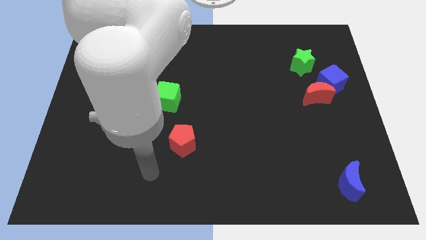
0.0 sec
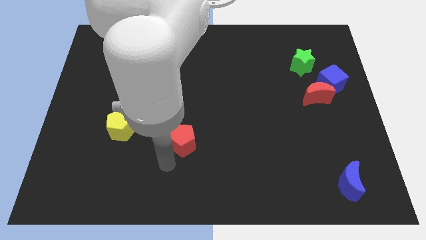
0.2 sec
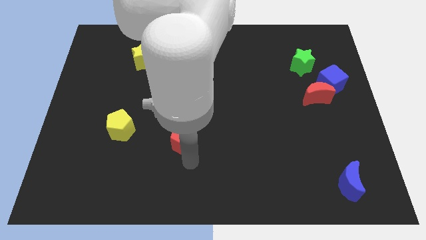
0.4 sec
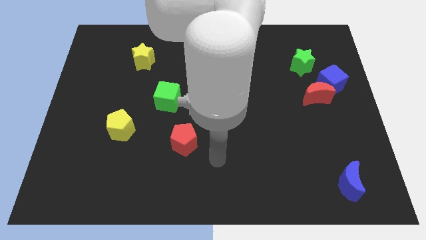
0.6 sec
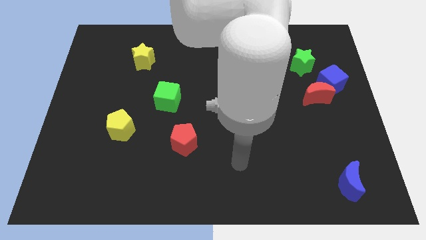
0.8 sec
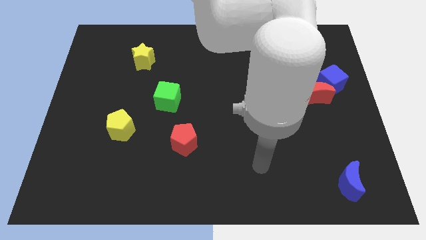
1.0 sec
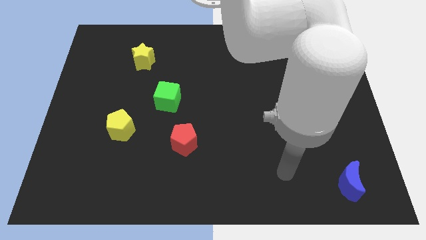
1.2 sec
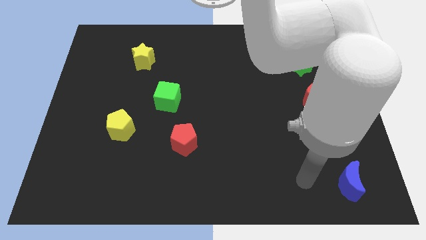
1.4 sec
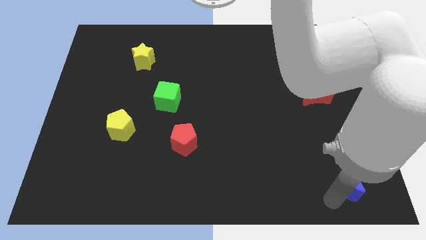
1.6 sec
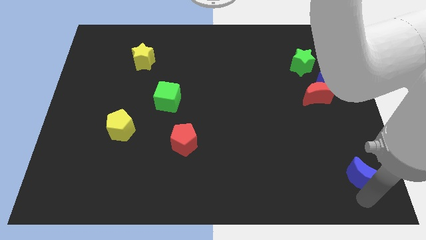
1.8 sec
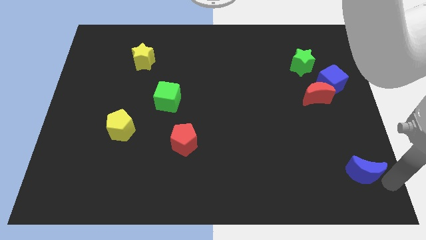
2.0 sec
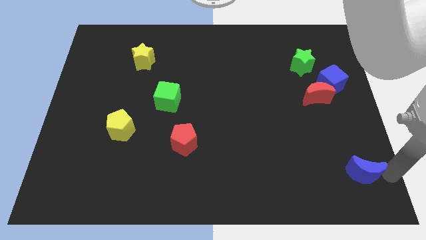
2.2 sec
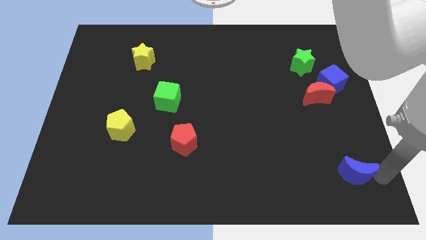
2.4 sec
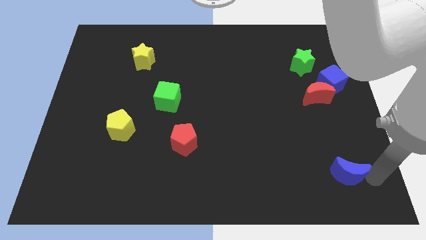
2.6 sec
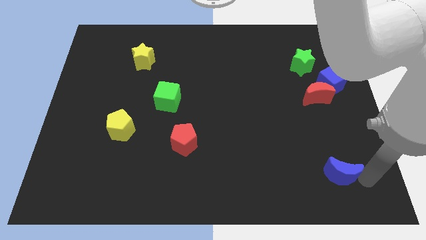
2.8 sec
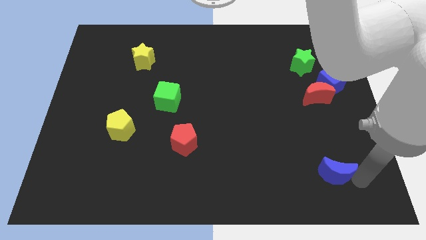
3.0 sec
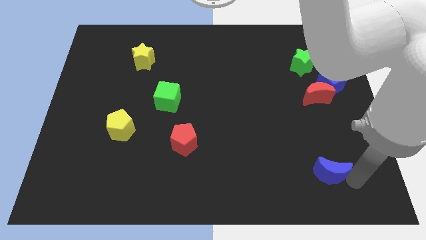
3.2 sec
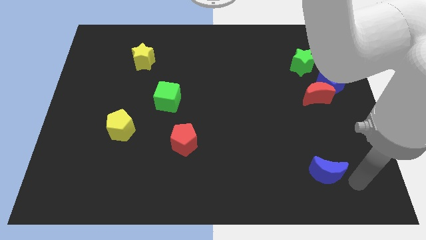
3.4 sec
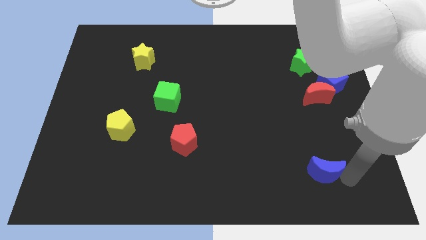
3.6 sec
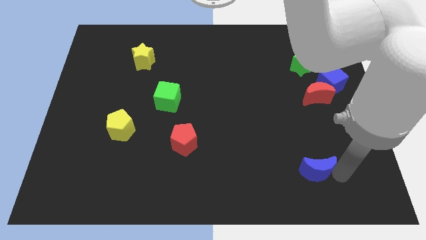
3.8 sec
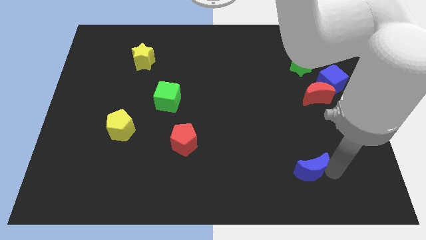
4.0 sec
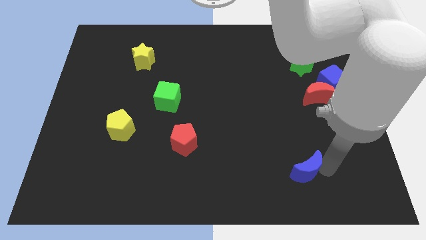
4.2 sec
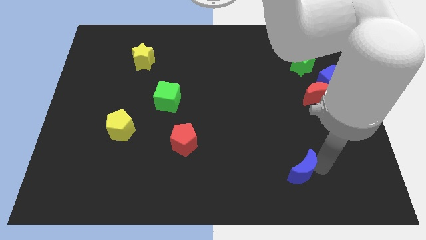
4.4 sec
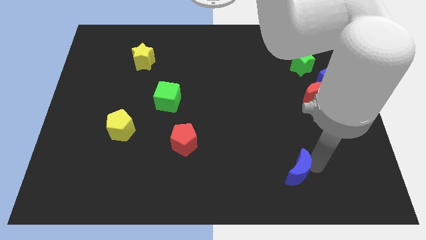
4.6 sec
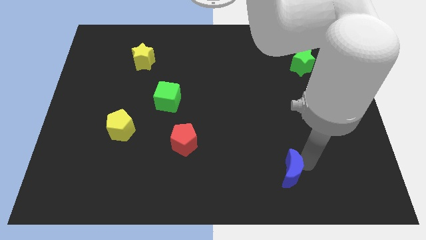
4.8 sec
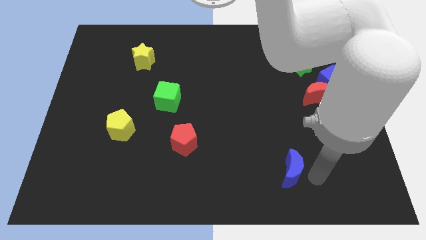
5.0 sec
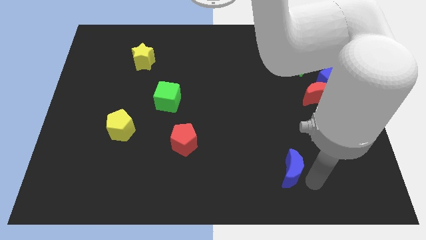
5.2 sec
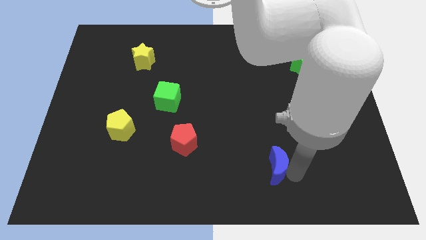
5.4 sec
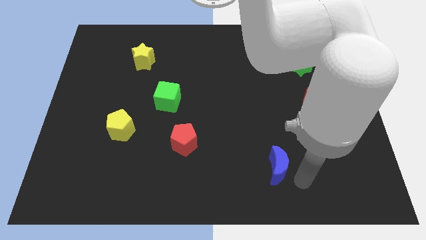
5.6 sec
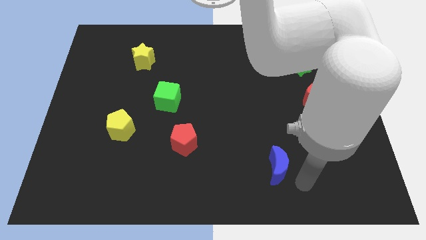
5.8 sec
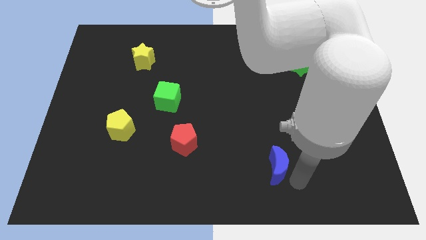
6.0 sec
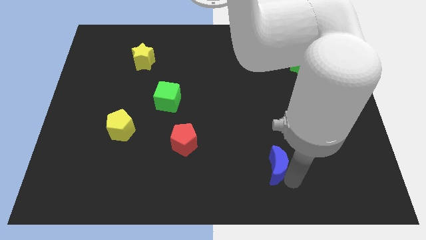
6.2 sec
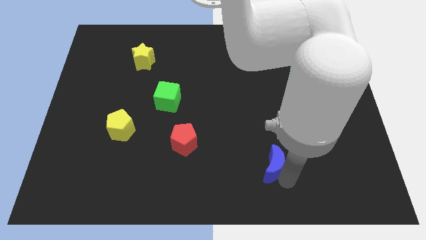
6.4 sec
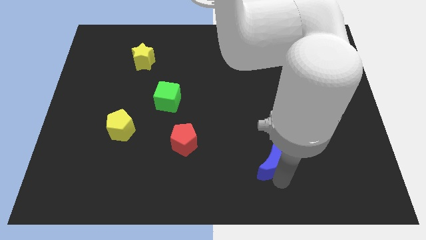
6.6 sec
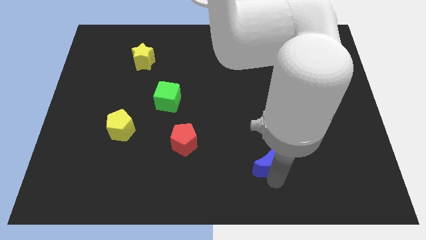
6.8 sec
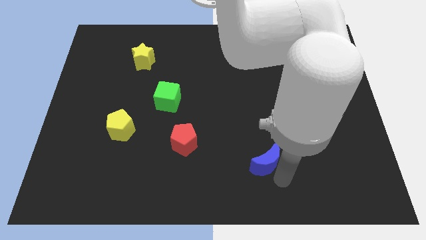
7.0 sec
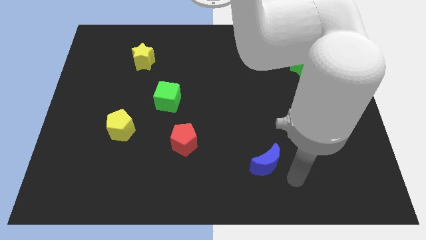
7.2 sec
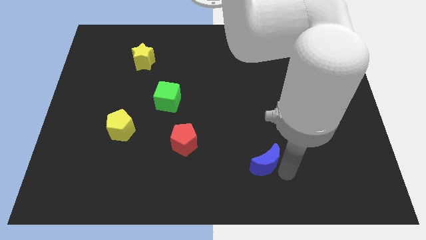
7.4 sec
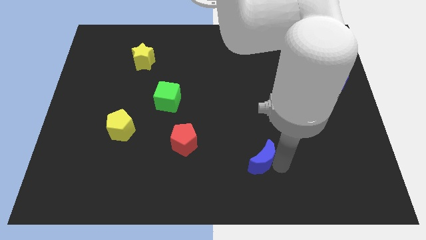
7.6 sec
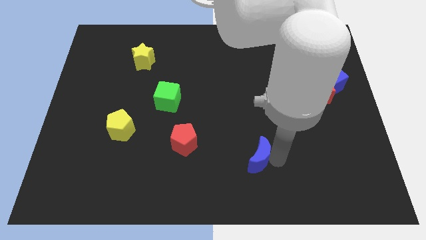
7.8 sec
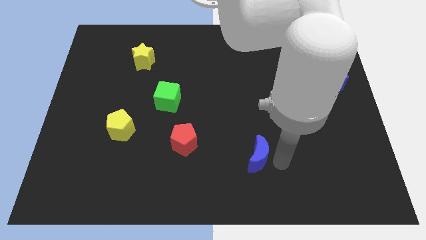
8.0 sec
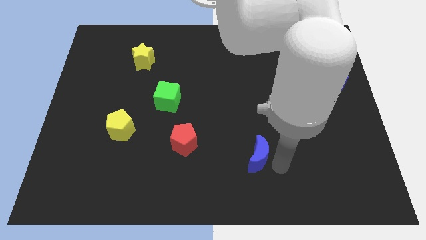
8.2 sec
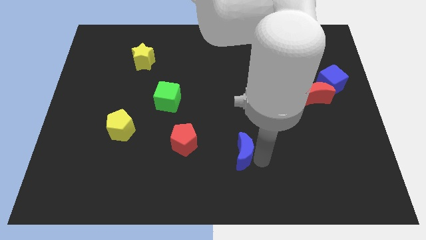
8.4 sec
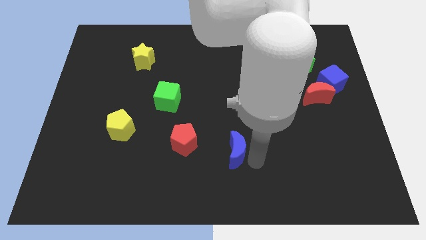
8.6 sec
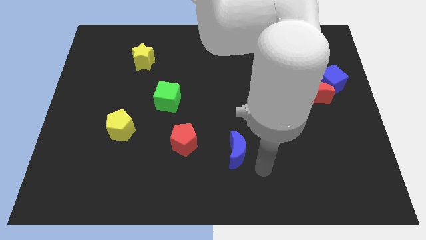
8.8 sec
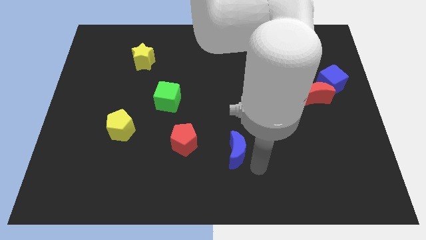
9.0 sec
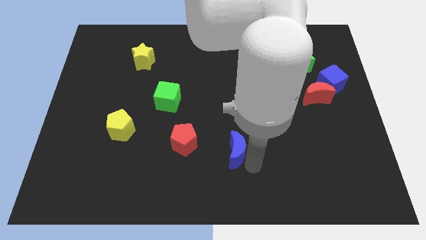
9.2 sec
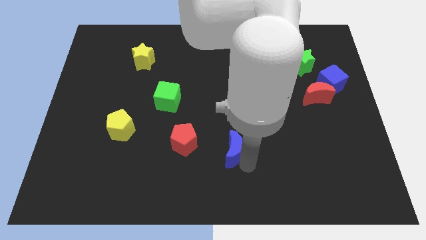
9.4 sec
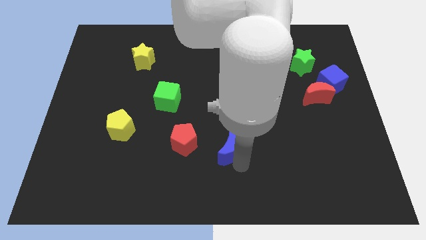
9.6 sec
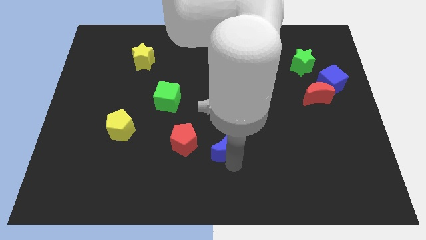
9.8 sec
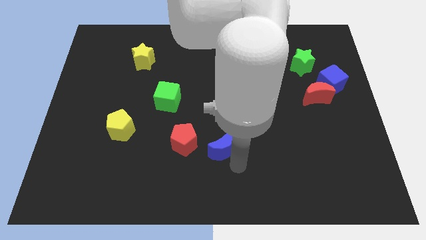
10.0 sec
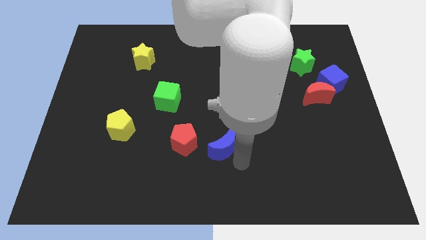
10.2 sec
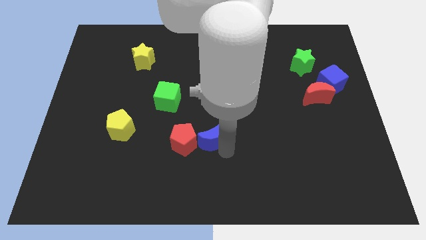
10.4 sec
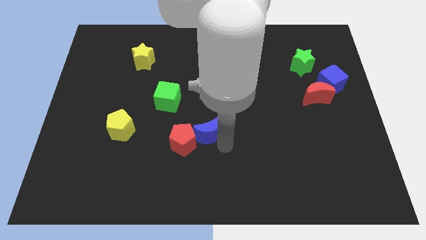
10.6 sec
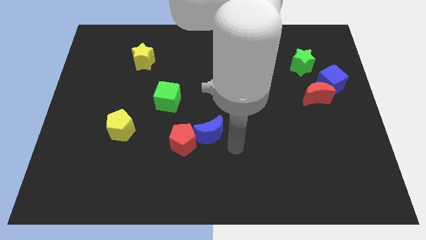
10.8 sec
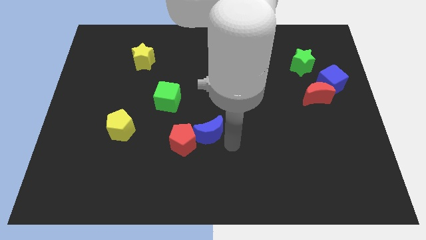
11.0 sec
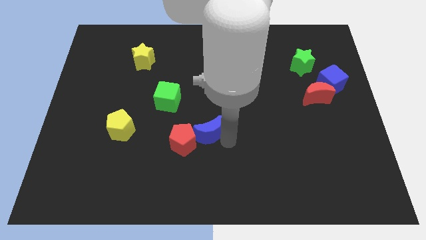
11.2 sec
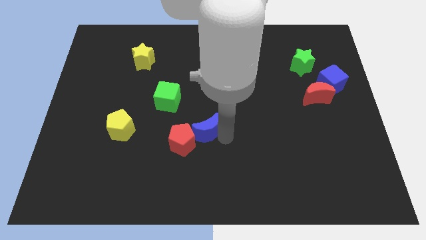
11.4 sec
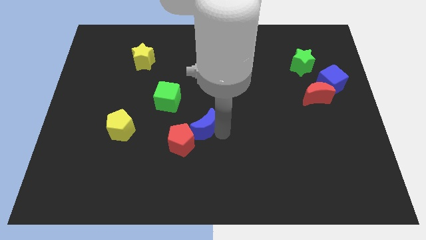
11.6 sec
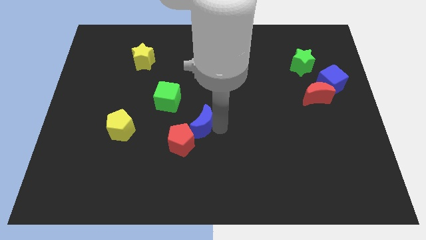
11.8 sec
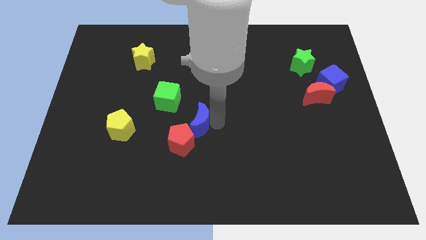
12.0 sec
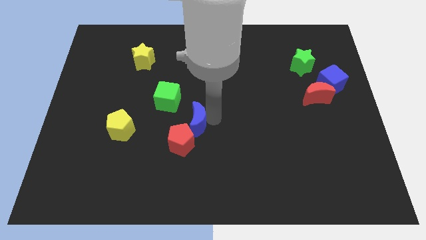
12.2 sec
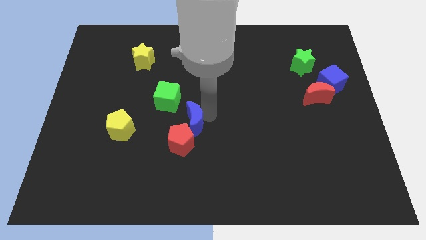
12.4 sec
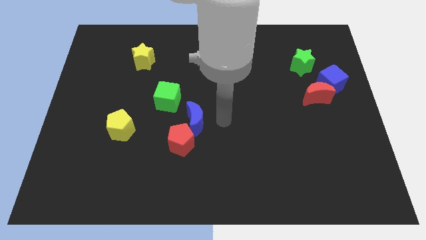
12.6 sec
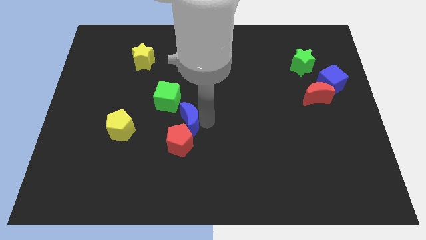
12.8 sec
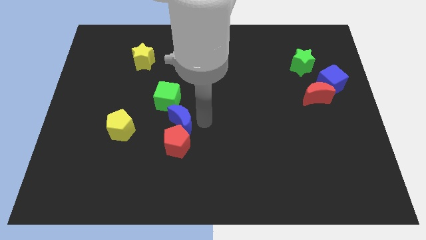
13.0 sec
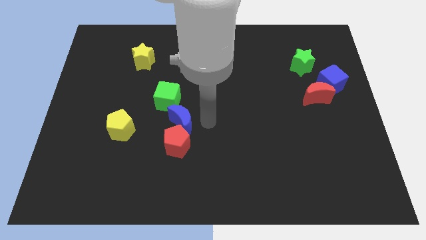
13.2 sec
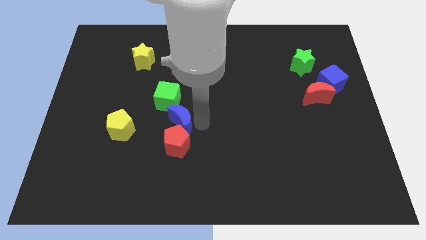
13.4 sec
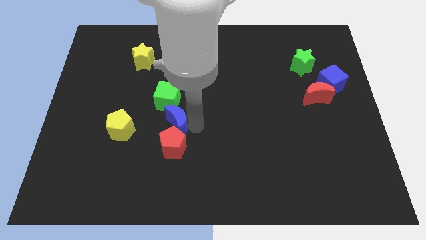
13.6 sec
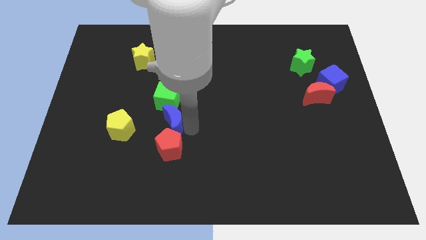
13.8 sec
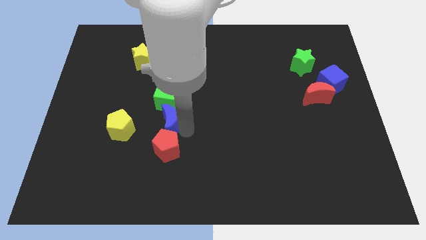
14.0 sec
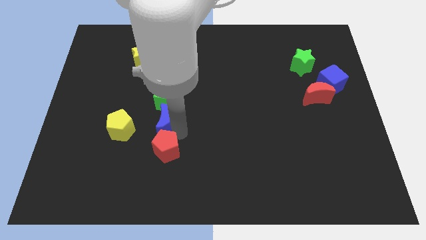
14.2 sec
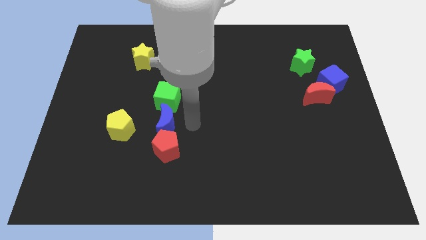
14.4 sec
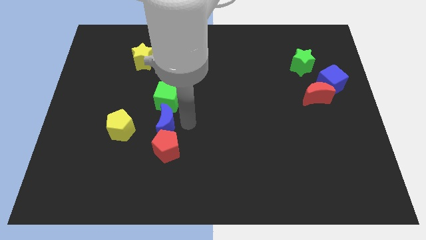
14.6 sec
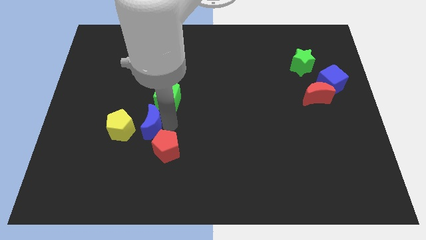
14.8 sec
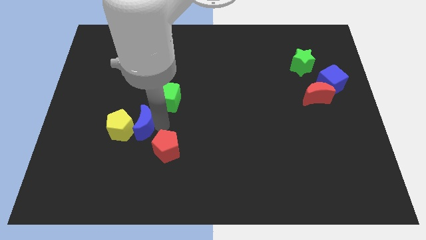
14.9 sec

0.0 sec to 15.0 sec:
push the blue moon towards the yellow pentagon
